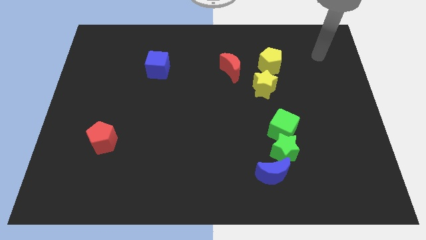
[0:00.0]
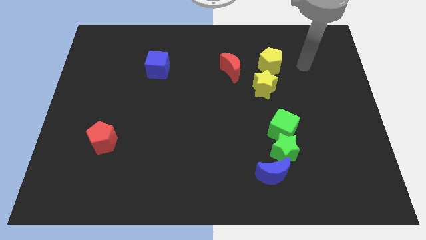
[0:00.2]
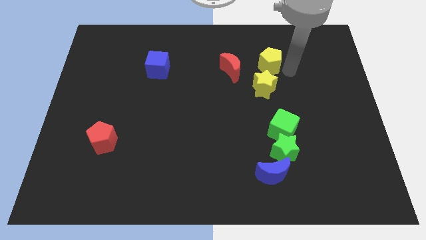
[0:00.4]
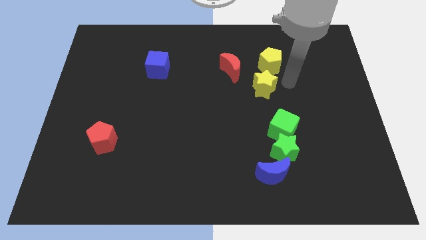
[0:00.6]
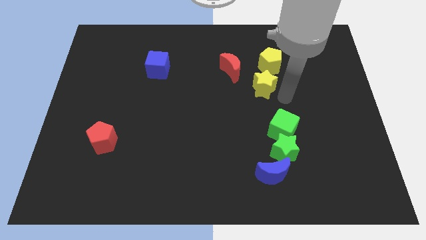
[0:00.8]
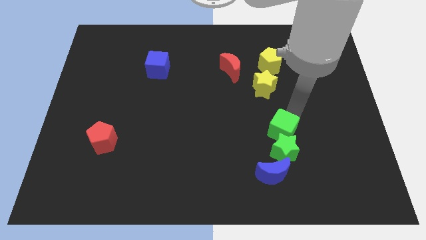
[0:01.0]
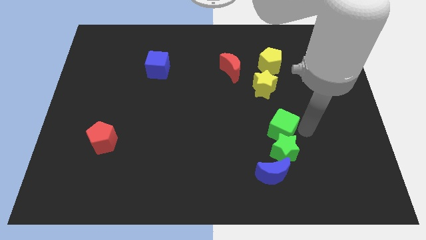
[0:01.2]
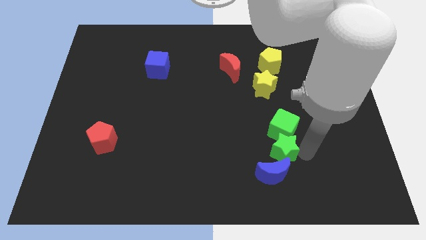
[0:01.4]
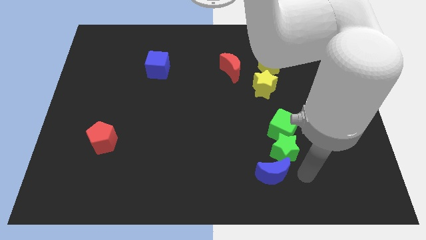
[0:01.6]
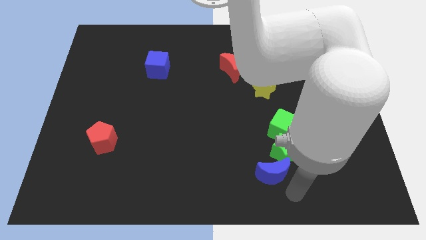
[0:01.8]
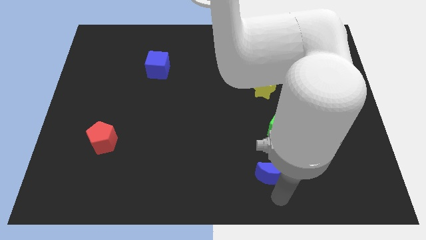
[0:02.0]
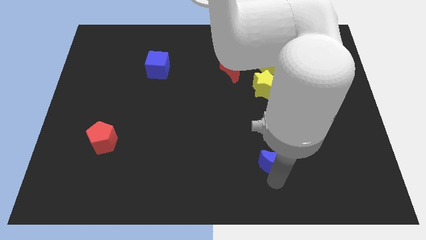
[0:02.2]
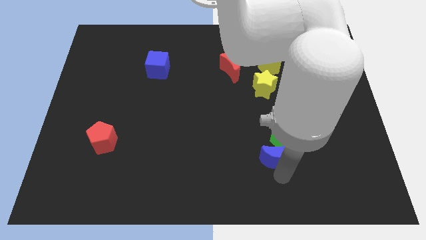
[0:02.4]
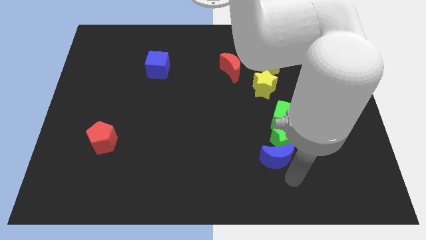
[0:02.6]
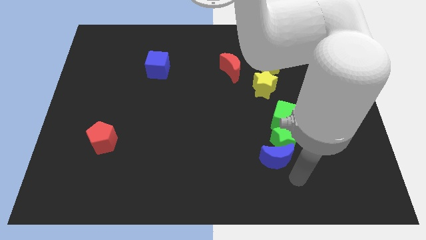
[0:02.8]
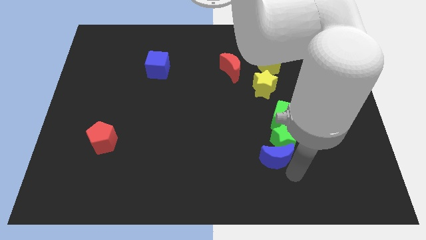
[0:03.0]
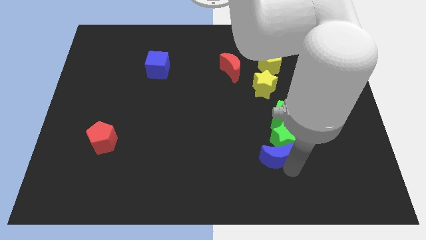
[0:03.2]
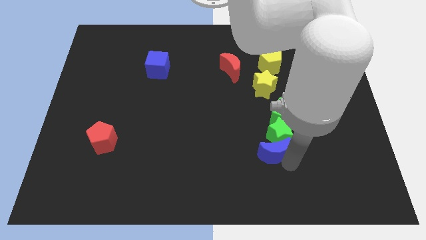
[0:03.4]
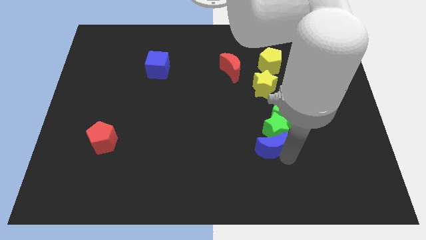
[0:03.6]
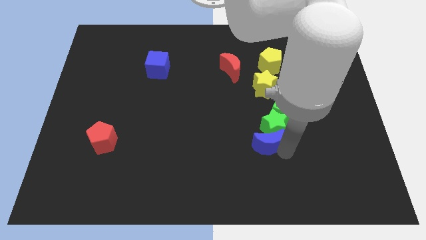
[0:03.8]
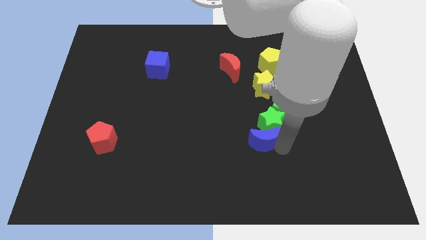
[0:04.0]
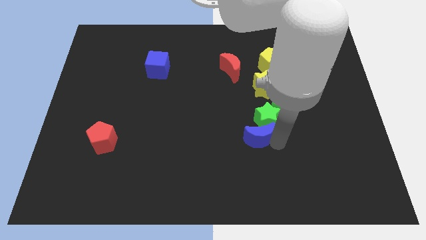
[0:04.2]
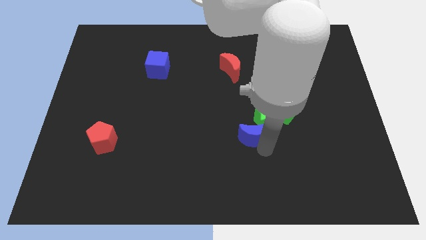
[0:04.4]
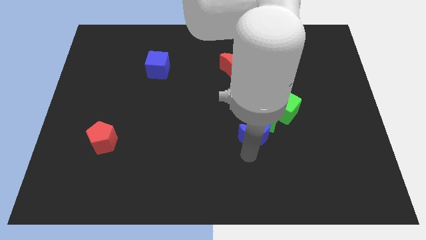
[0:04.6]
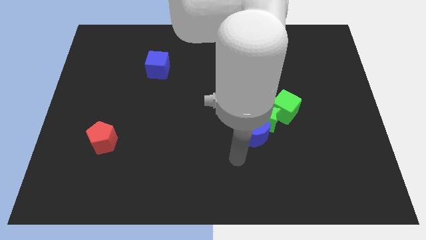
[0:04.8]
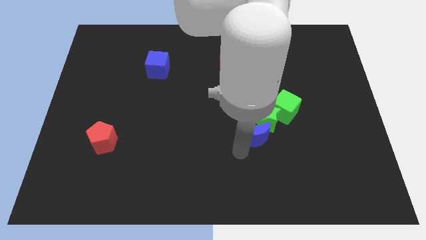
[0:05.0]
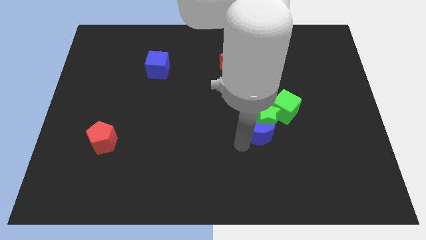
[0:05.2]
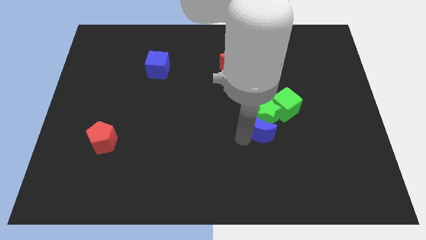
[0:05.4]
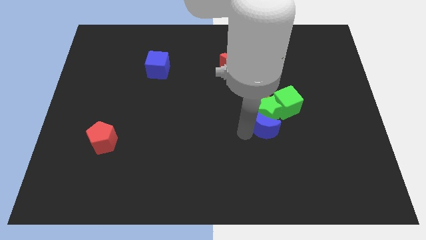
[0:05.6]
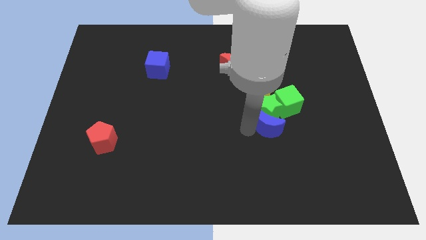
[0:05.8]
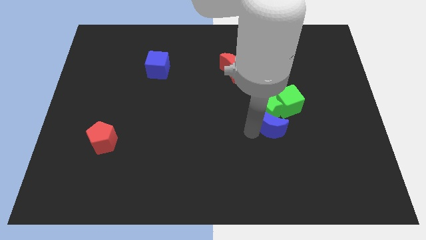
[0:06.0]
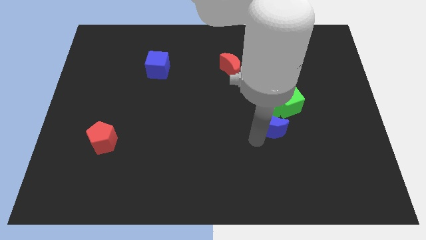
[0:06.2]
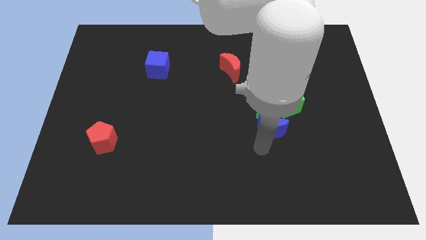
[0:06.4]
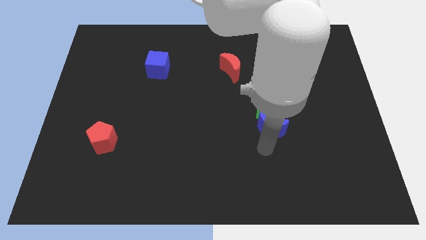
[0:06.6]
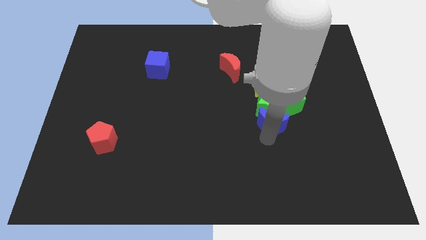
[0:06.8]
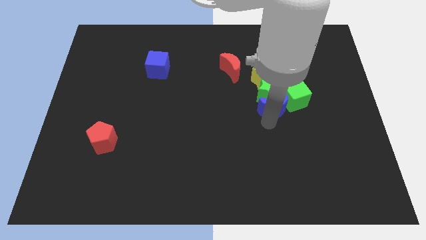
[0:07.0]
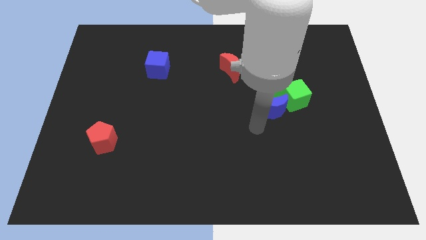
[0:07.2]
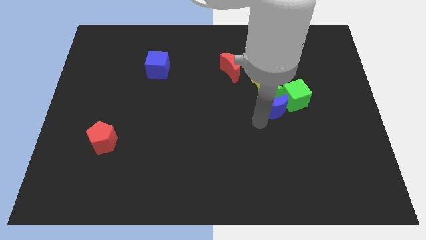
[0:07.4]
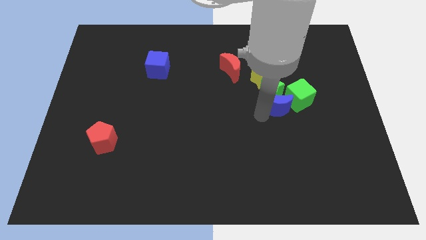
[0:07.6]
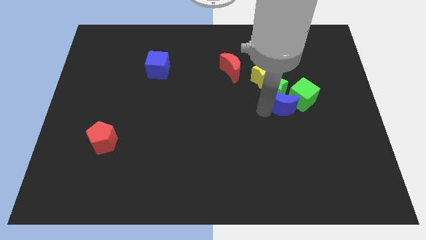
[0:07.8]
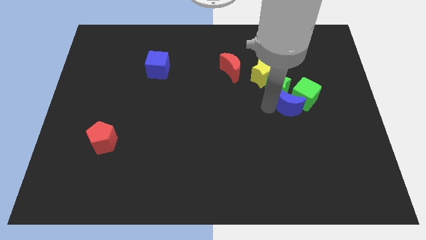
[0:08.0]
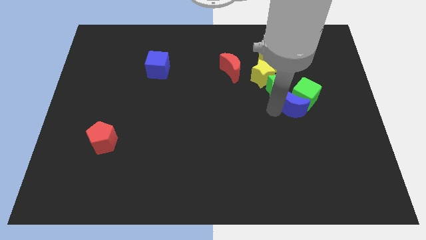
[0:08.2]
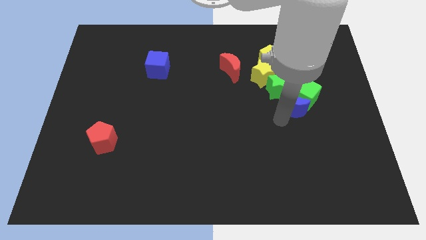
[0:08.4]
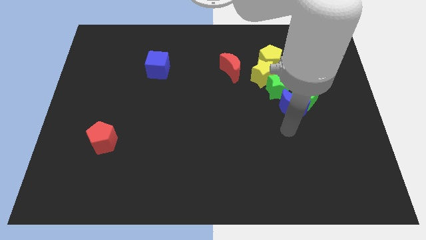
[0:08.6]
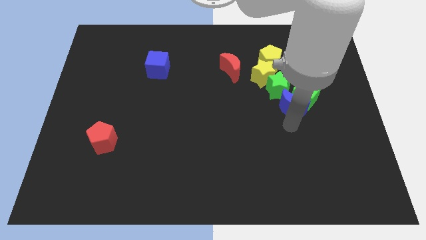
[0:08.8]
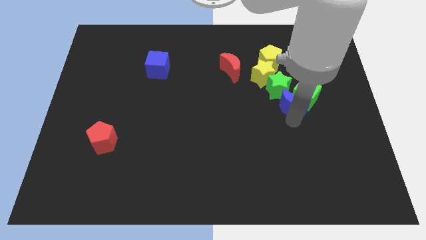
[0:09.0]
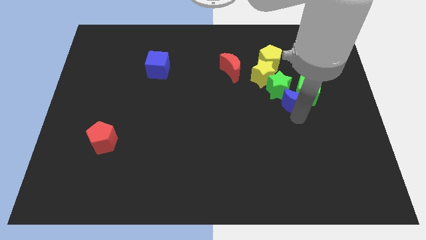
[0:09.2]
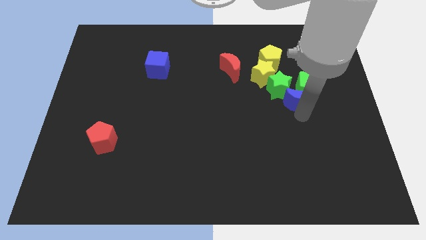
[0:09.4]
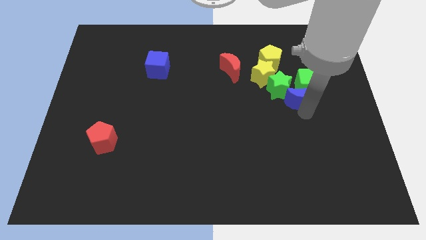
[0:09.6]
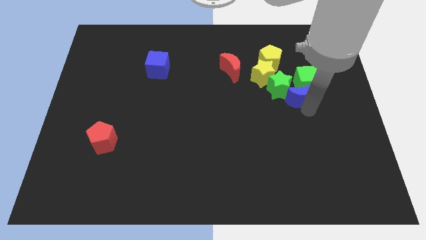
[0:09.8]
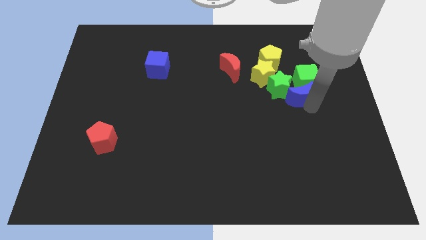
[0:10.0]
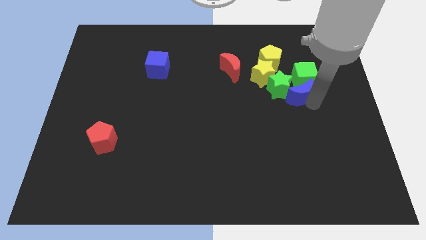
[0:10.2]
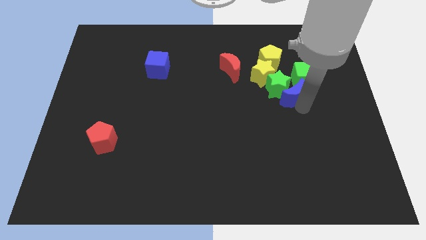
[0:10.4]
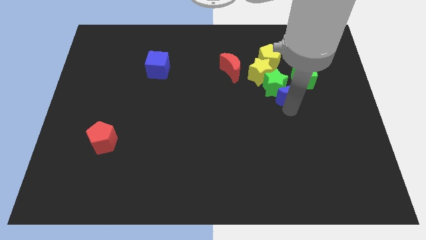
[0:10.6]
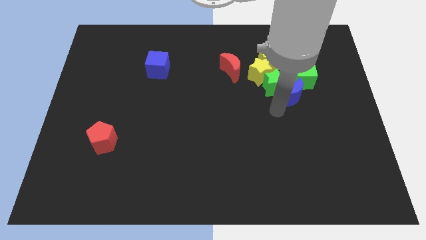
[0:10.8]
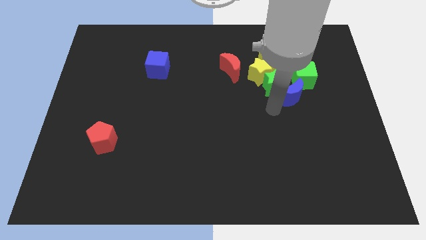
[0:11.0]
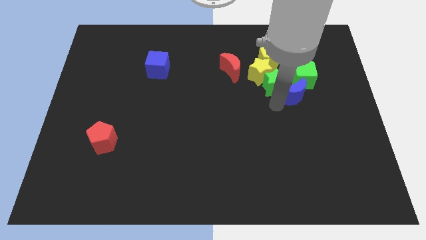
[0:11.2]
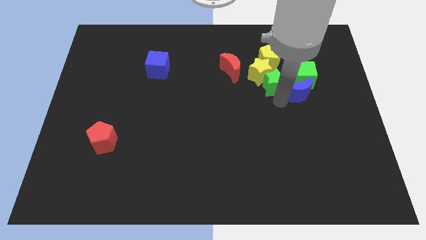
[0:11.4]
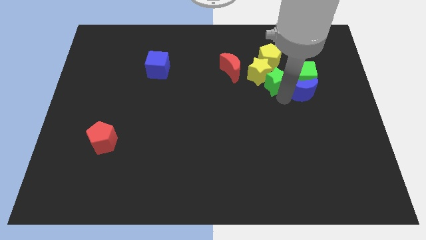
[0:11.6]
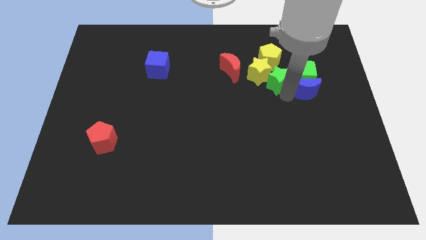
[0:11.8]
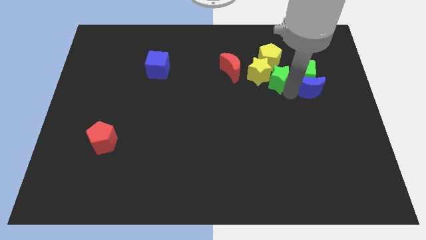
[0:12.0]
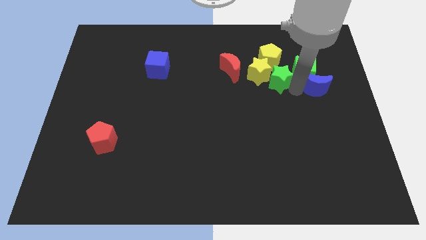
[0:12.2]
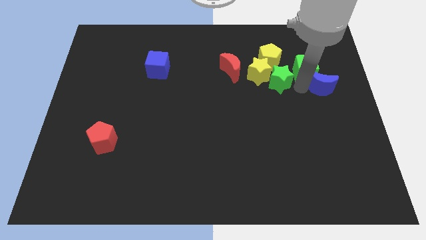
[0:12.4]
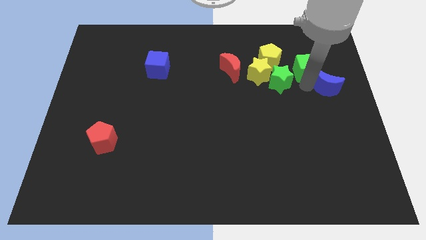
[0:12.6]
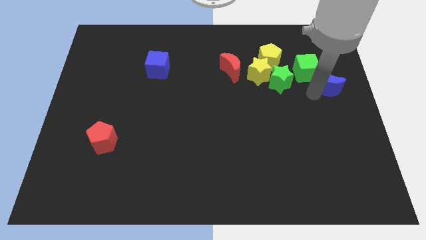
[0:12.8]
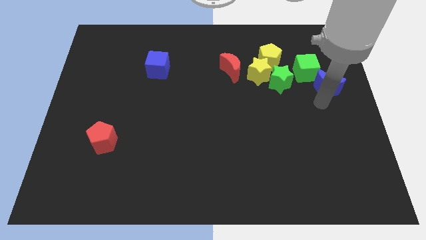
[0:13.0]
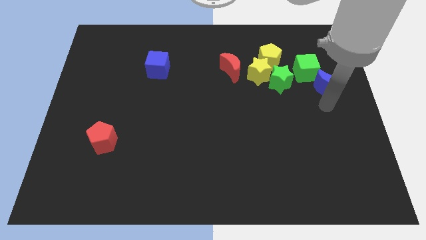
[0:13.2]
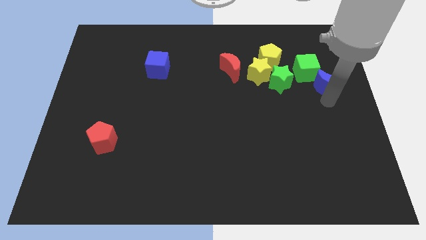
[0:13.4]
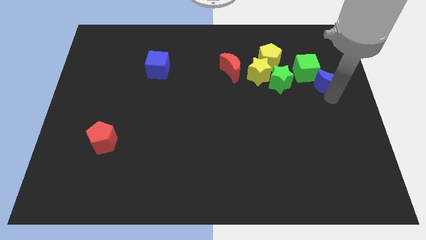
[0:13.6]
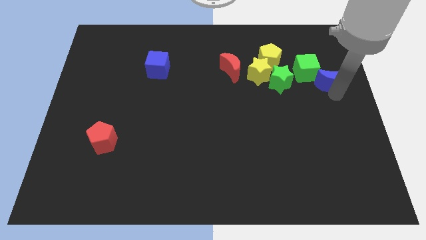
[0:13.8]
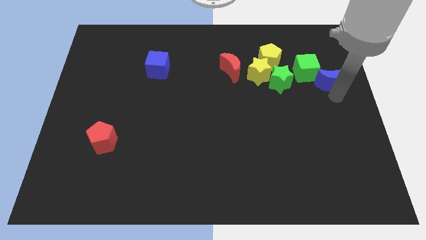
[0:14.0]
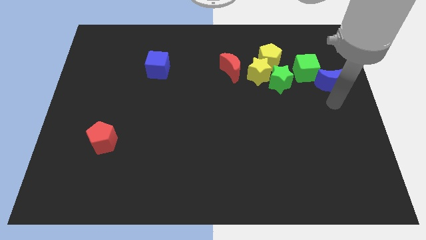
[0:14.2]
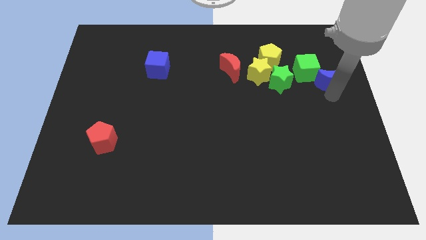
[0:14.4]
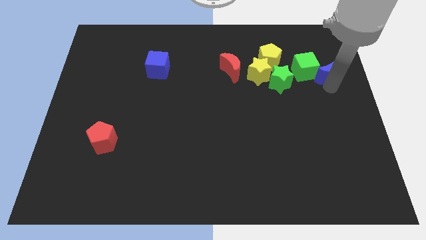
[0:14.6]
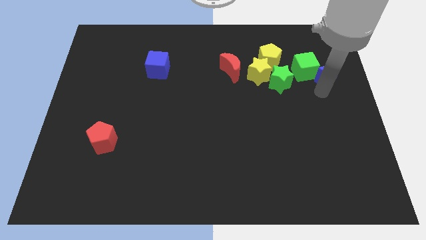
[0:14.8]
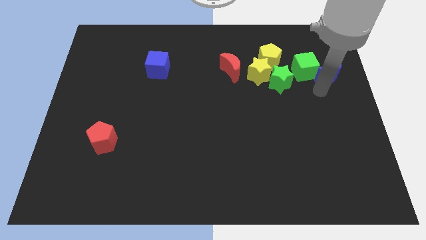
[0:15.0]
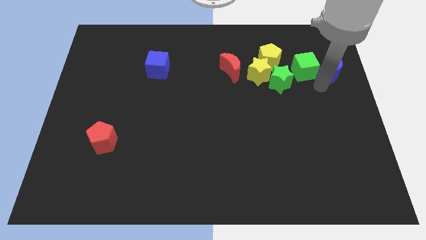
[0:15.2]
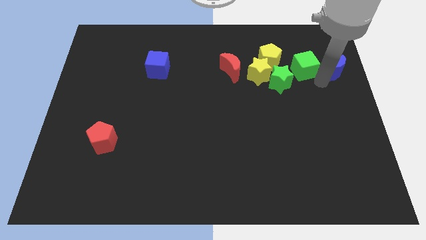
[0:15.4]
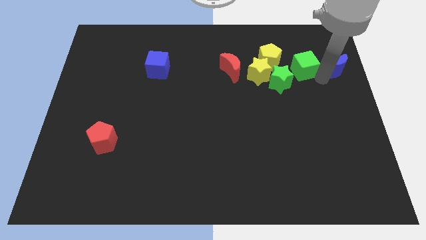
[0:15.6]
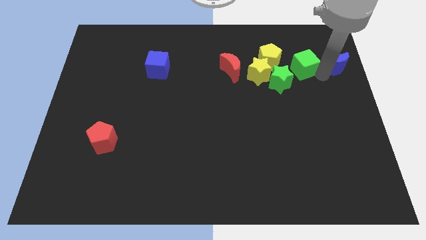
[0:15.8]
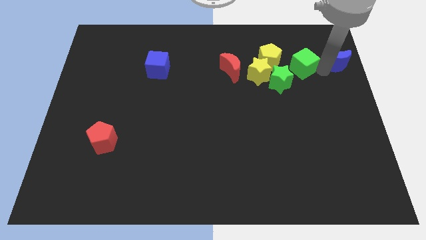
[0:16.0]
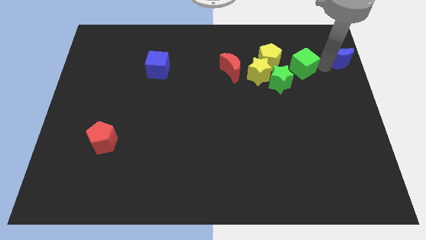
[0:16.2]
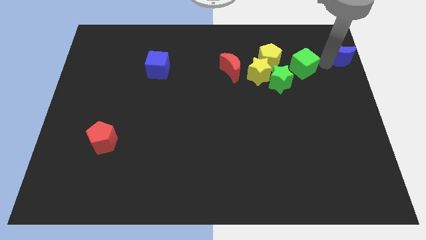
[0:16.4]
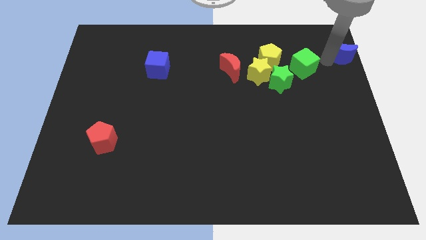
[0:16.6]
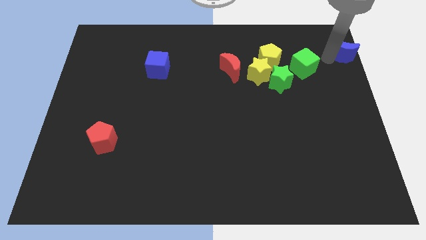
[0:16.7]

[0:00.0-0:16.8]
put the blue moon to the top right corner
